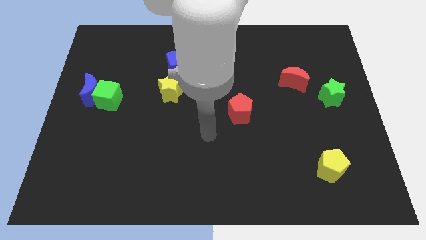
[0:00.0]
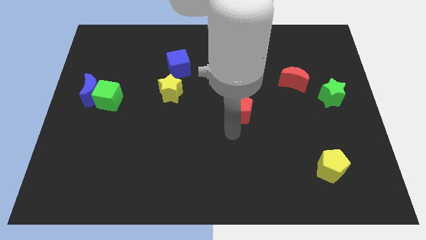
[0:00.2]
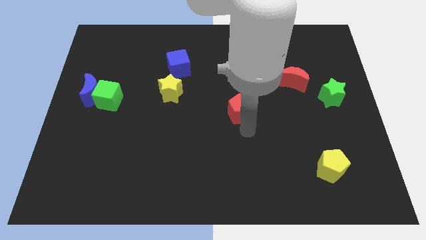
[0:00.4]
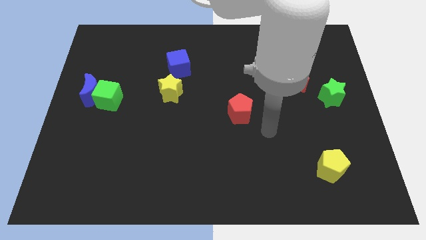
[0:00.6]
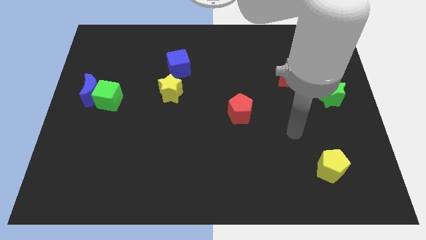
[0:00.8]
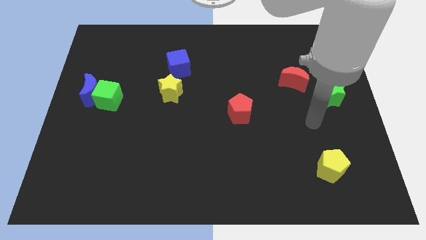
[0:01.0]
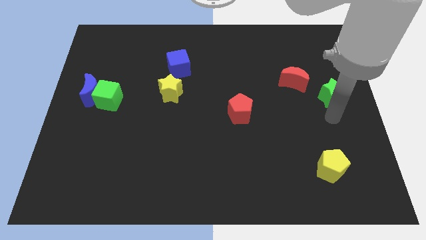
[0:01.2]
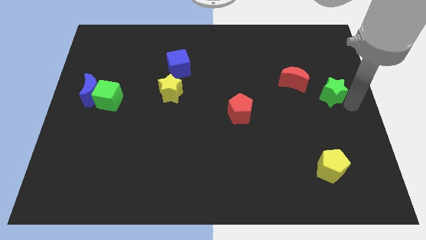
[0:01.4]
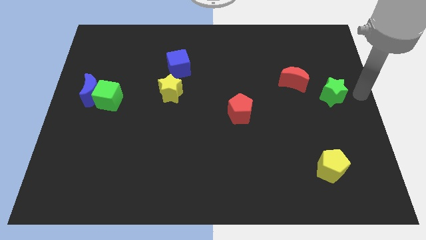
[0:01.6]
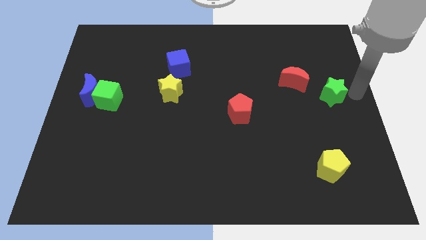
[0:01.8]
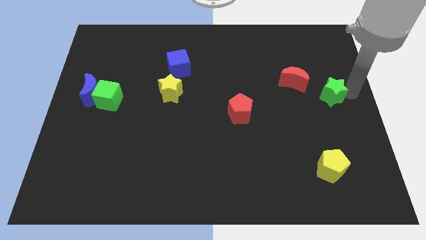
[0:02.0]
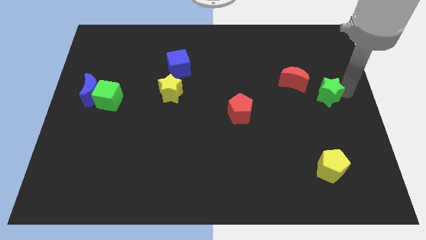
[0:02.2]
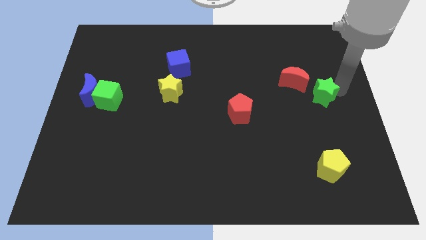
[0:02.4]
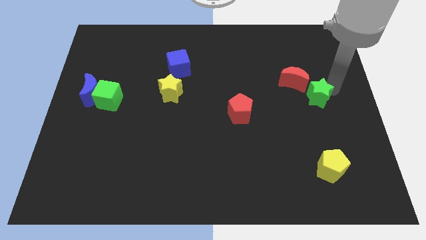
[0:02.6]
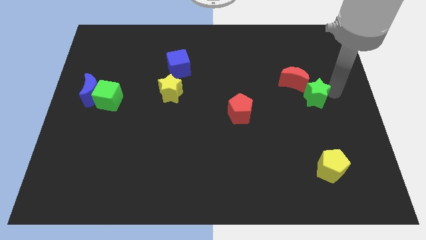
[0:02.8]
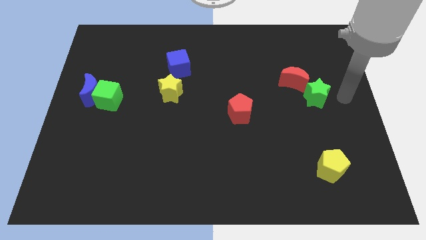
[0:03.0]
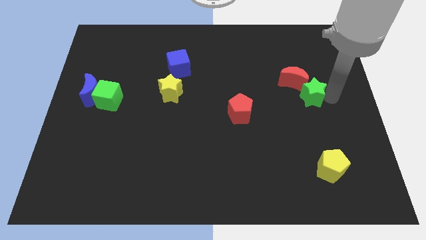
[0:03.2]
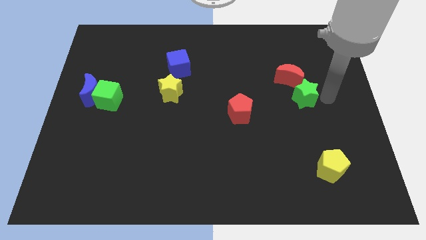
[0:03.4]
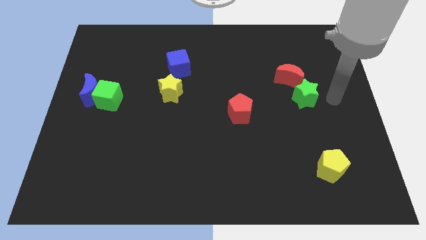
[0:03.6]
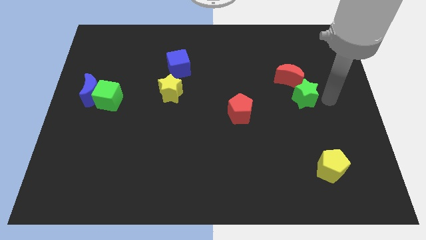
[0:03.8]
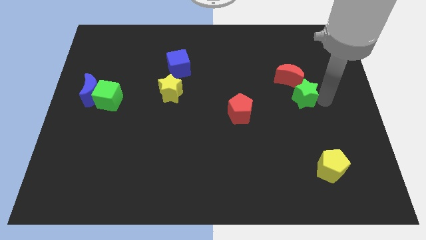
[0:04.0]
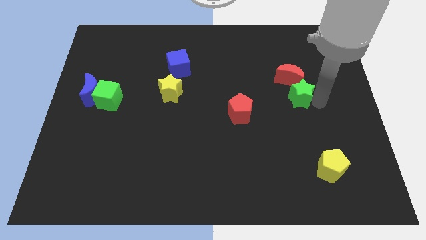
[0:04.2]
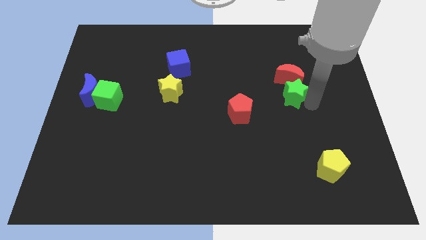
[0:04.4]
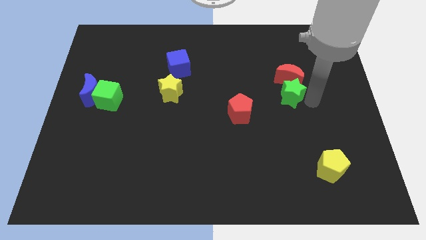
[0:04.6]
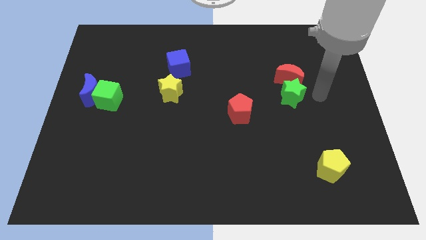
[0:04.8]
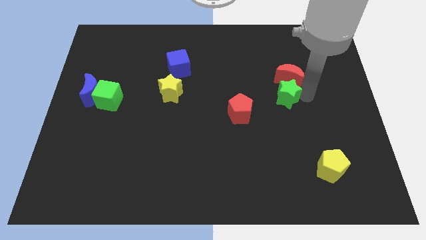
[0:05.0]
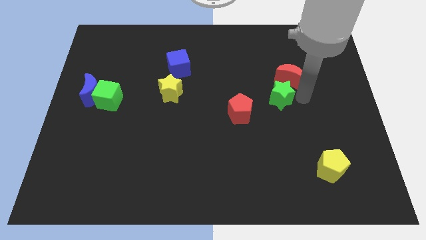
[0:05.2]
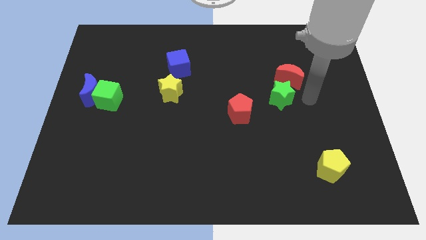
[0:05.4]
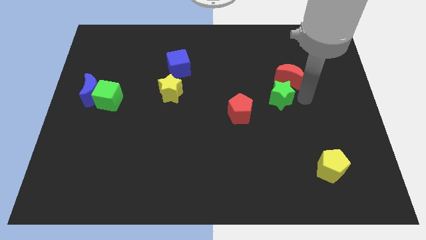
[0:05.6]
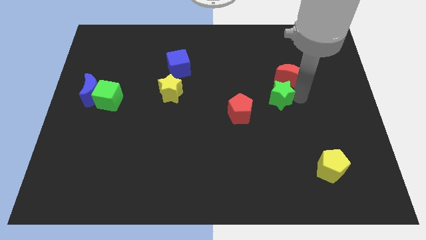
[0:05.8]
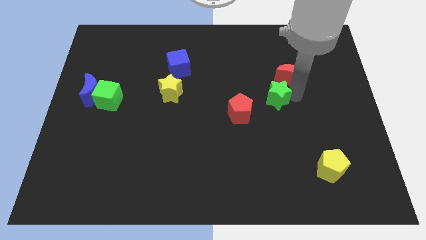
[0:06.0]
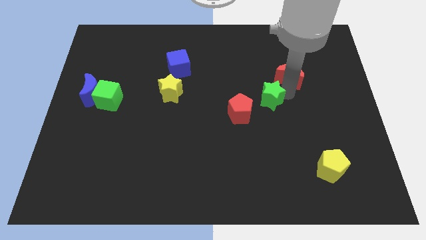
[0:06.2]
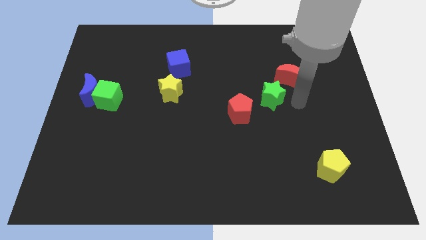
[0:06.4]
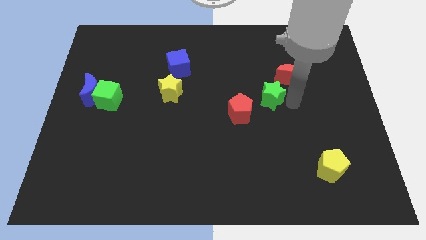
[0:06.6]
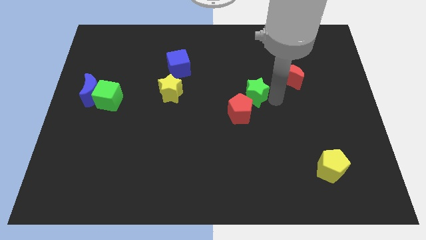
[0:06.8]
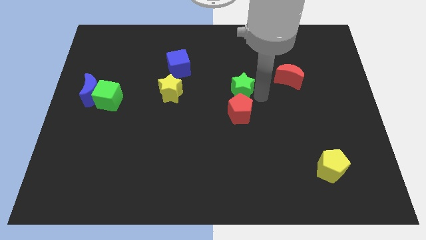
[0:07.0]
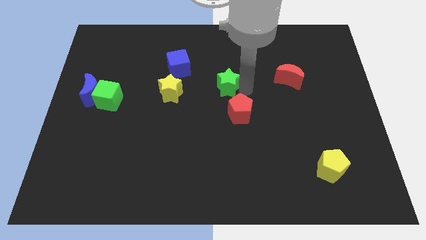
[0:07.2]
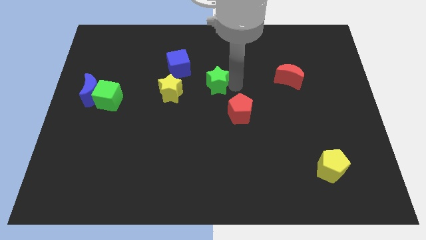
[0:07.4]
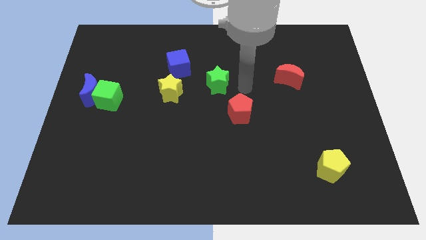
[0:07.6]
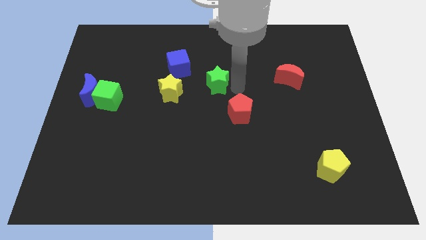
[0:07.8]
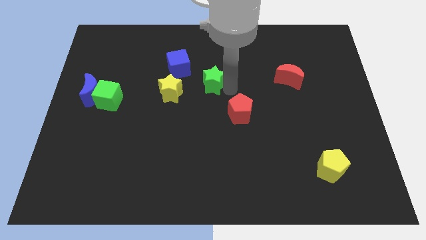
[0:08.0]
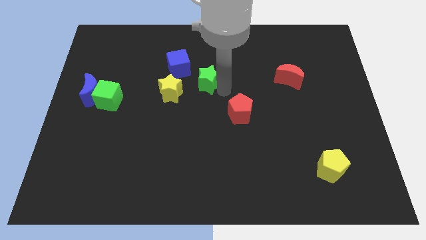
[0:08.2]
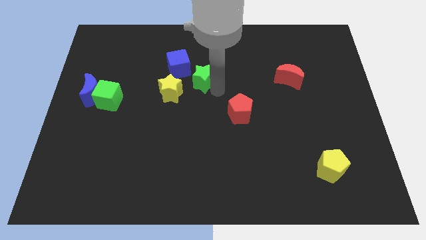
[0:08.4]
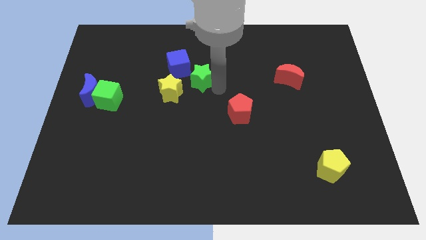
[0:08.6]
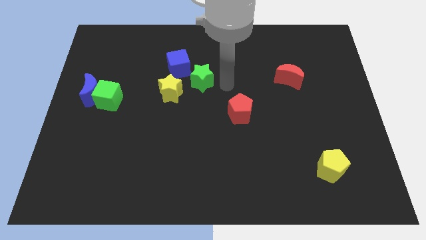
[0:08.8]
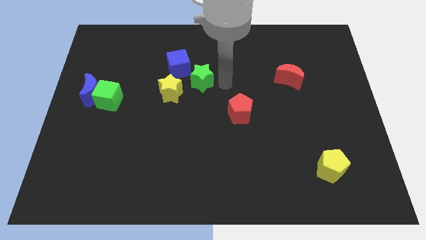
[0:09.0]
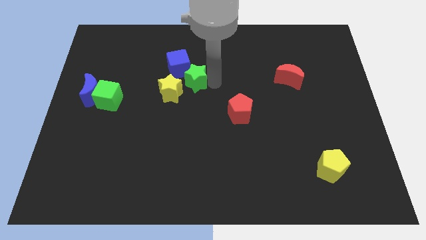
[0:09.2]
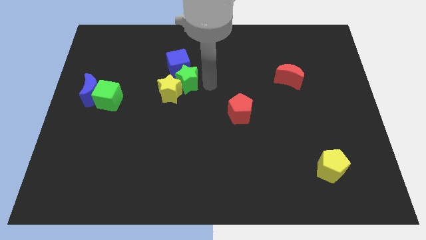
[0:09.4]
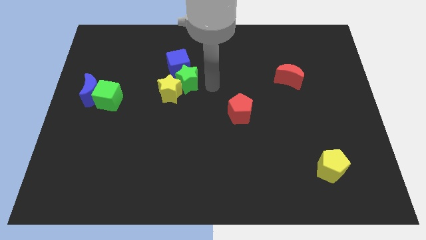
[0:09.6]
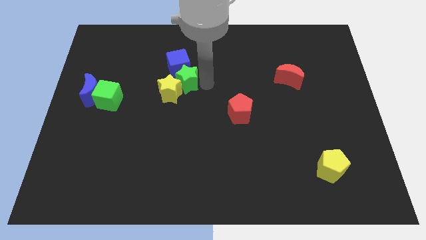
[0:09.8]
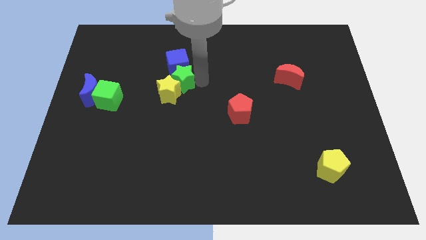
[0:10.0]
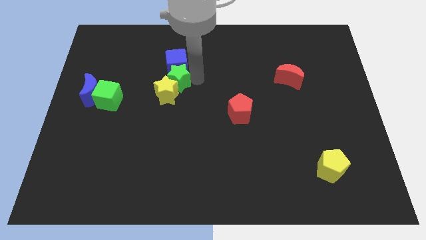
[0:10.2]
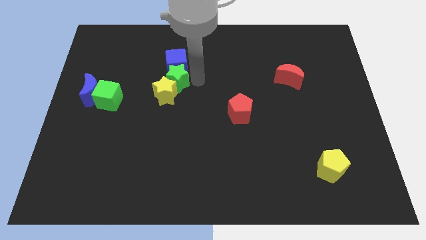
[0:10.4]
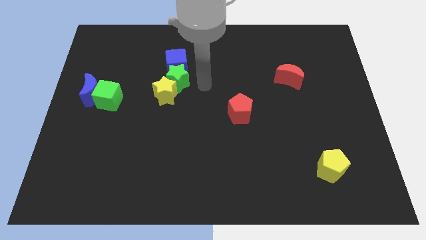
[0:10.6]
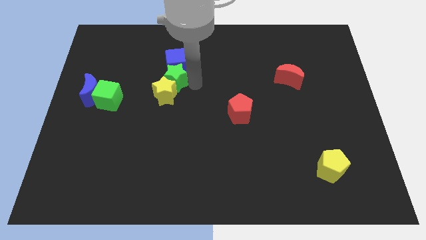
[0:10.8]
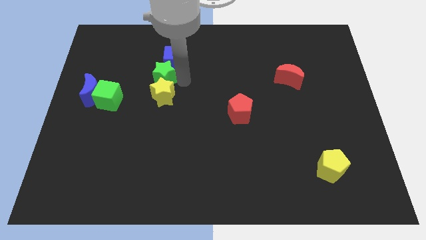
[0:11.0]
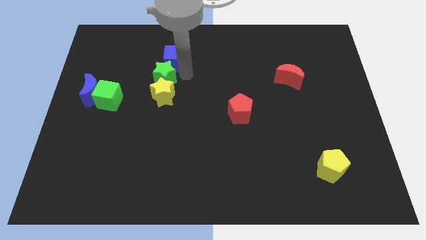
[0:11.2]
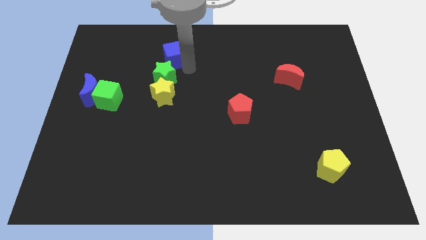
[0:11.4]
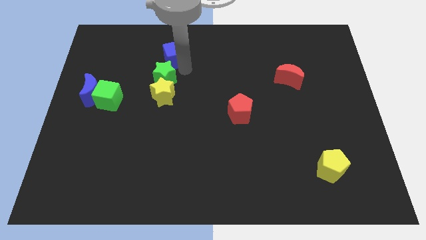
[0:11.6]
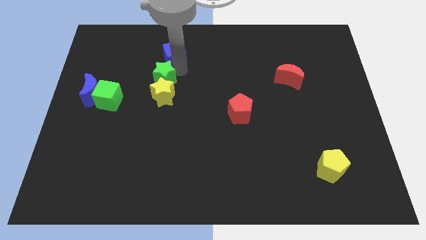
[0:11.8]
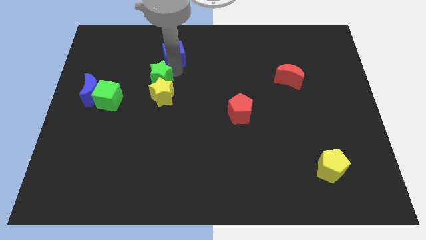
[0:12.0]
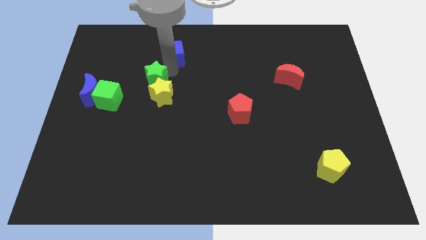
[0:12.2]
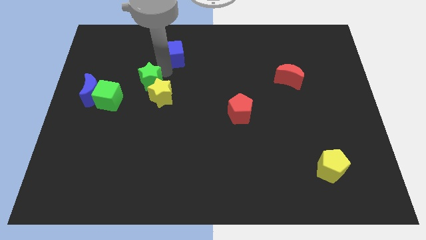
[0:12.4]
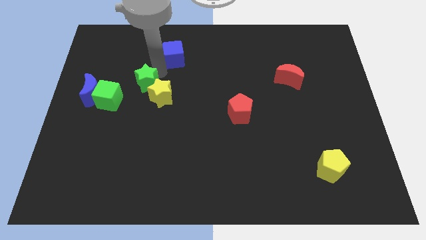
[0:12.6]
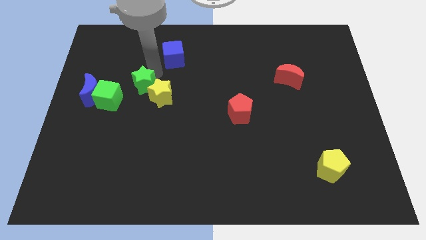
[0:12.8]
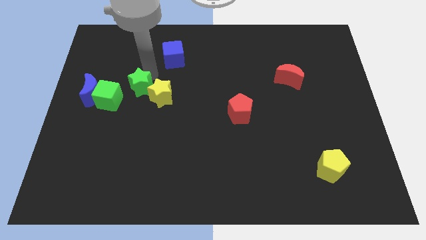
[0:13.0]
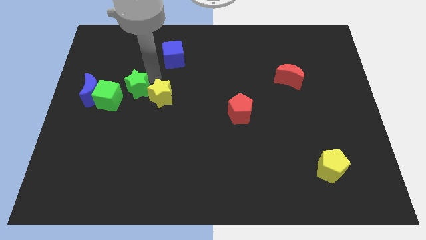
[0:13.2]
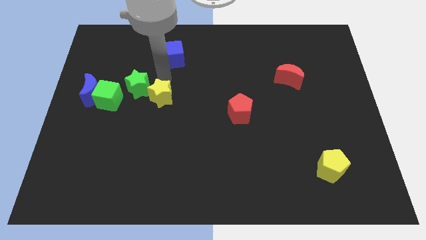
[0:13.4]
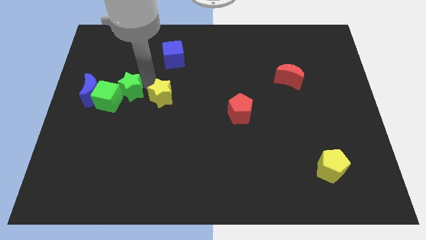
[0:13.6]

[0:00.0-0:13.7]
slide the green star to the green cube

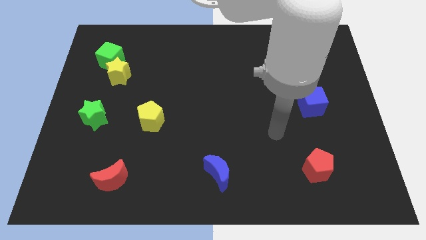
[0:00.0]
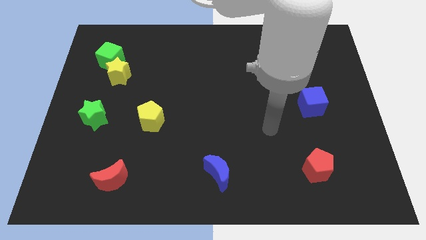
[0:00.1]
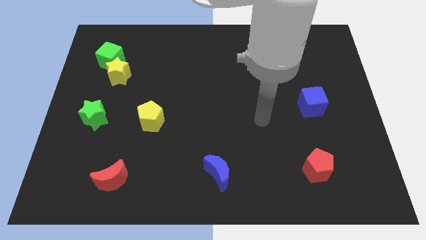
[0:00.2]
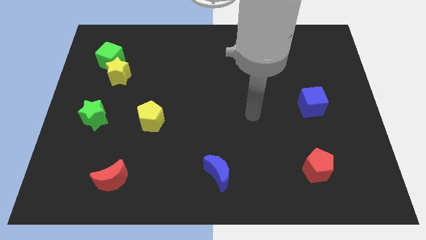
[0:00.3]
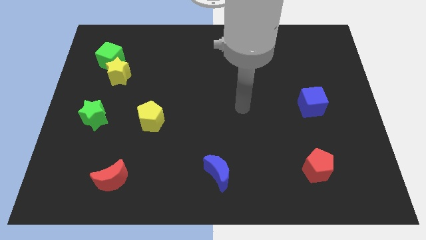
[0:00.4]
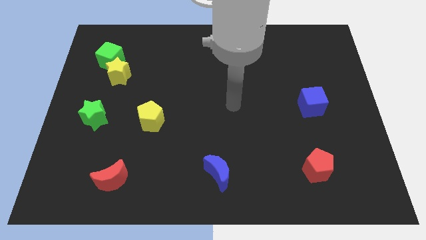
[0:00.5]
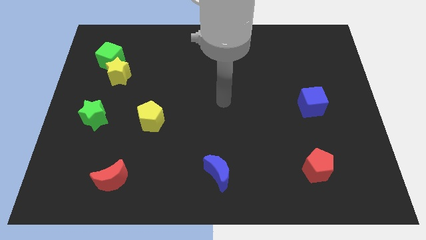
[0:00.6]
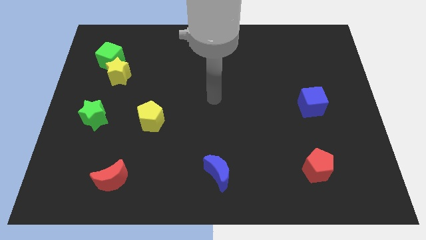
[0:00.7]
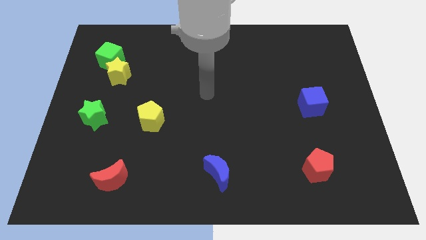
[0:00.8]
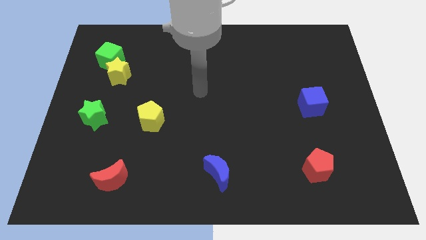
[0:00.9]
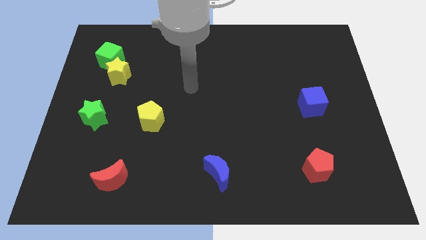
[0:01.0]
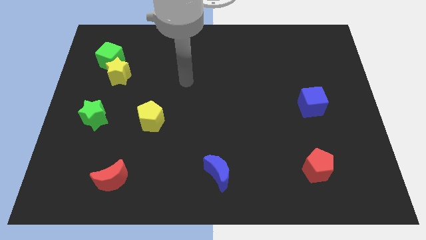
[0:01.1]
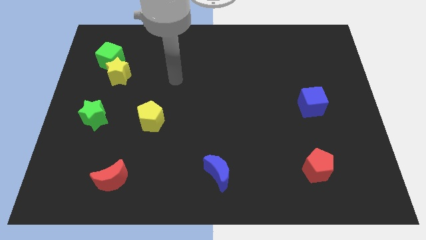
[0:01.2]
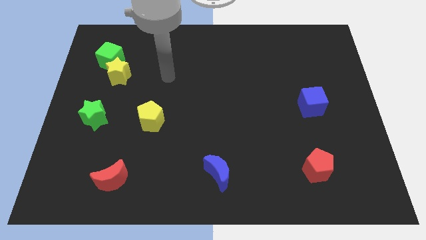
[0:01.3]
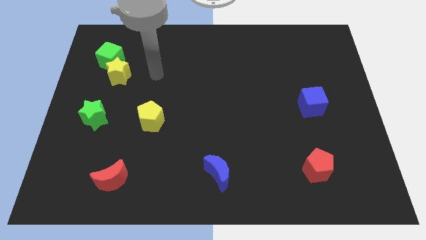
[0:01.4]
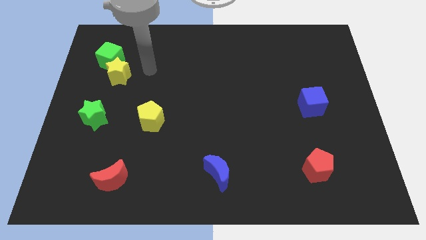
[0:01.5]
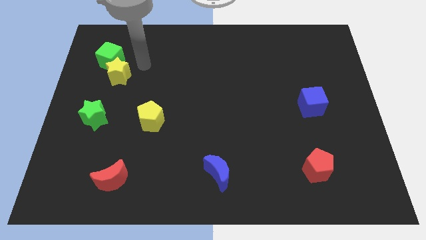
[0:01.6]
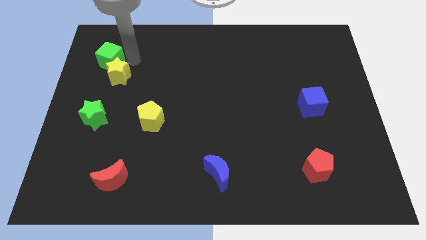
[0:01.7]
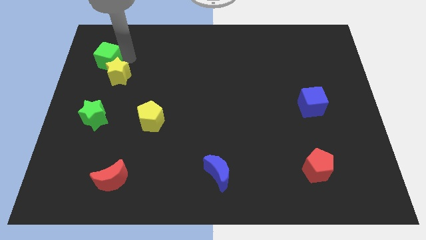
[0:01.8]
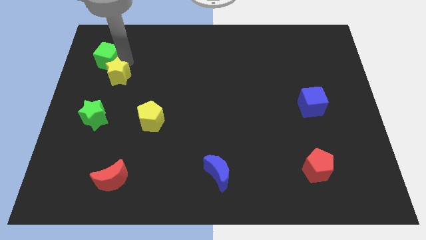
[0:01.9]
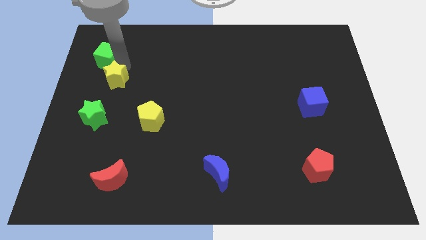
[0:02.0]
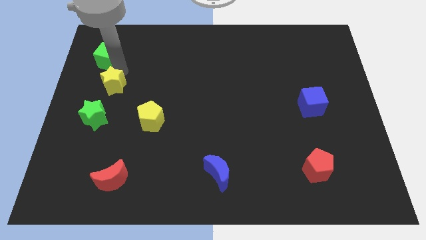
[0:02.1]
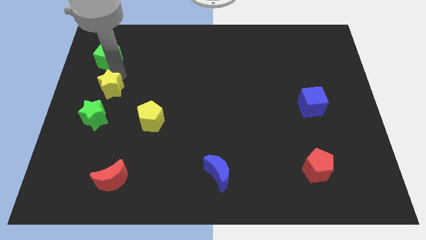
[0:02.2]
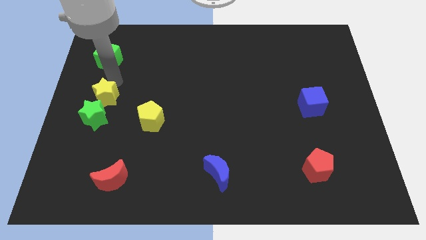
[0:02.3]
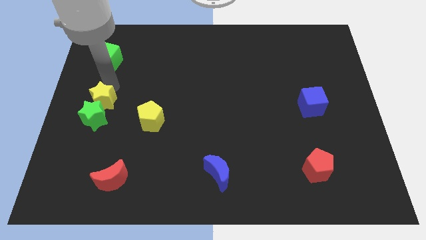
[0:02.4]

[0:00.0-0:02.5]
put the yellow star close to the green star
